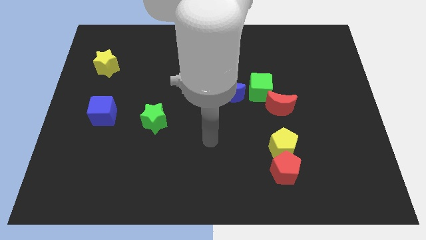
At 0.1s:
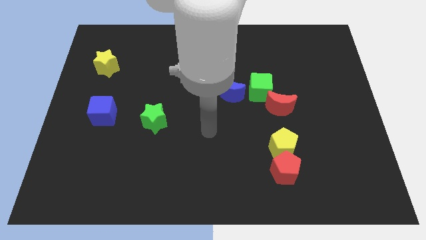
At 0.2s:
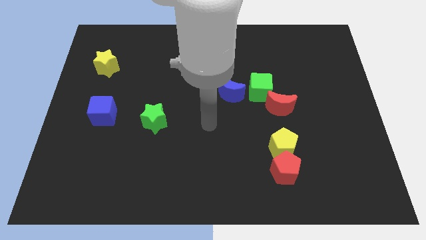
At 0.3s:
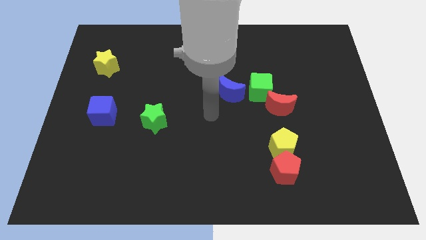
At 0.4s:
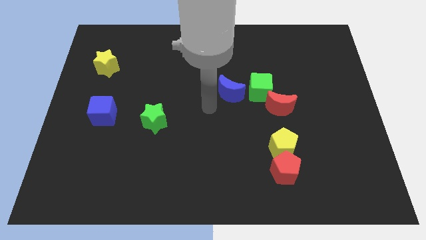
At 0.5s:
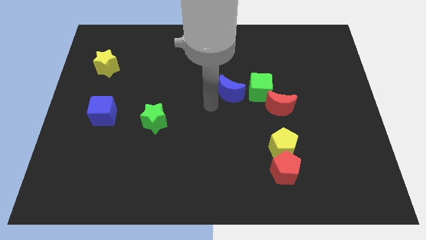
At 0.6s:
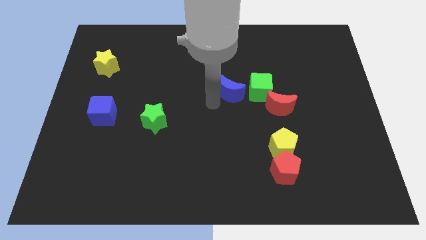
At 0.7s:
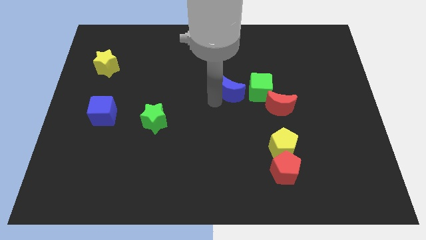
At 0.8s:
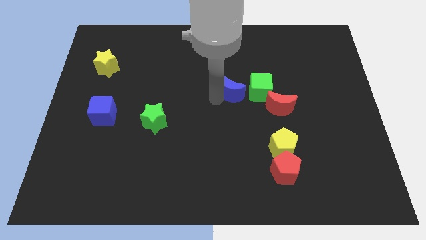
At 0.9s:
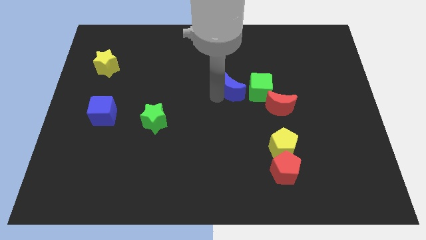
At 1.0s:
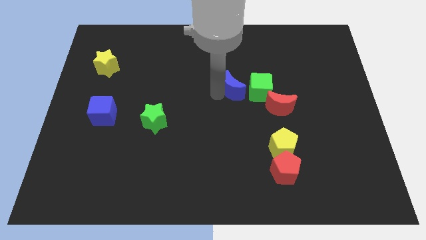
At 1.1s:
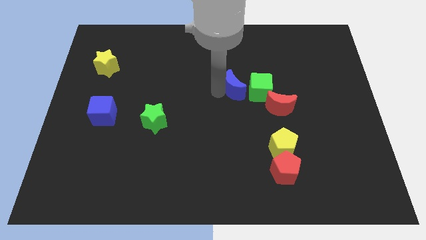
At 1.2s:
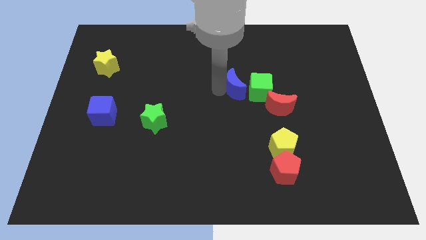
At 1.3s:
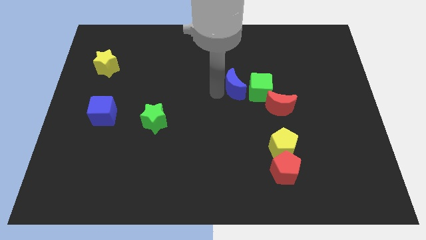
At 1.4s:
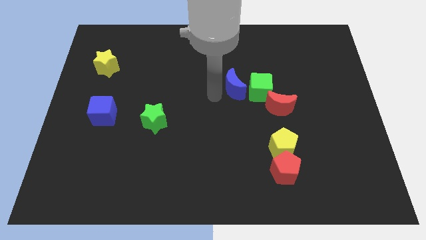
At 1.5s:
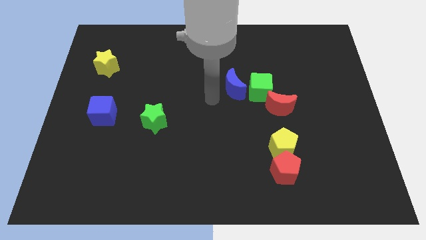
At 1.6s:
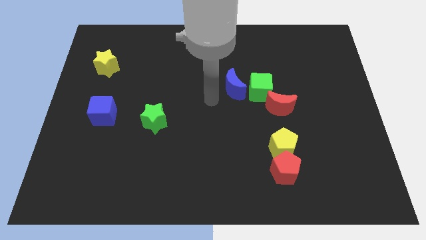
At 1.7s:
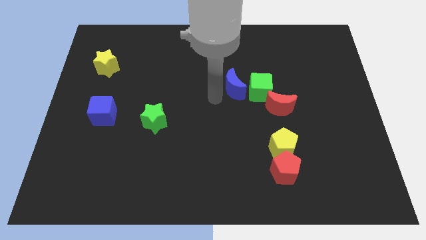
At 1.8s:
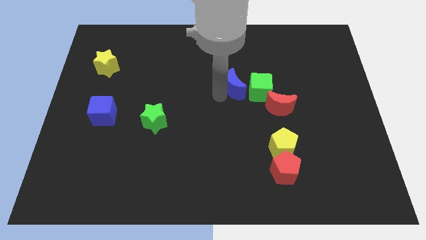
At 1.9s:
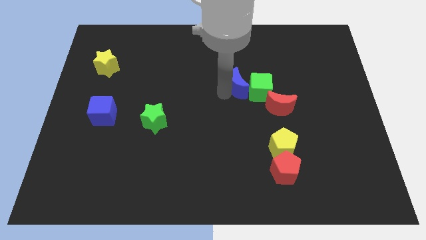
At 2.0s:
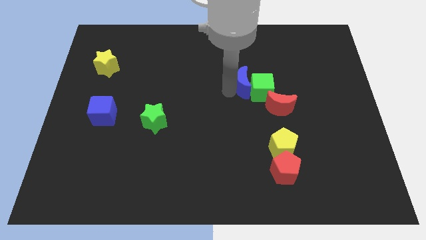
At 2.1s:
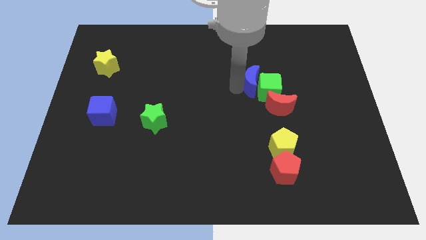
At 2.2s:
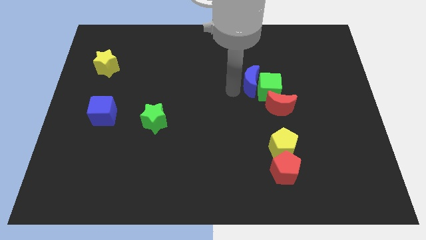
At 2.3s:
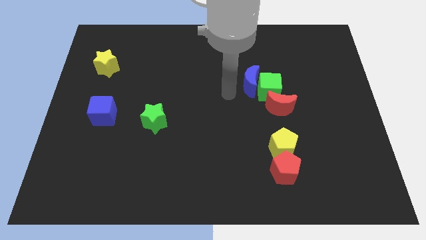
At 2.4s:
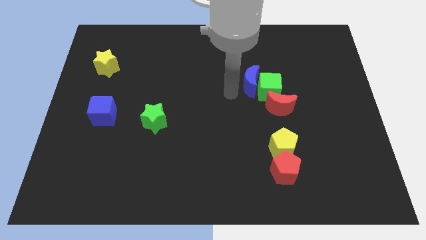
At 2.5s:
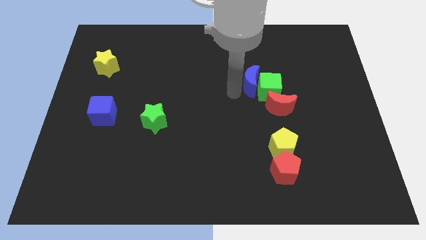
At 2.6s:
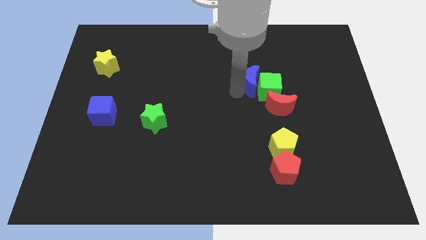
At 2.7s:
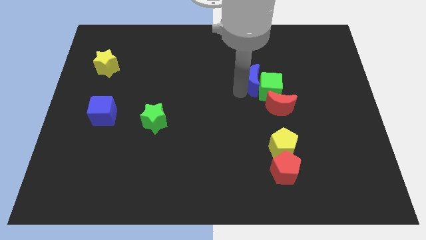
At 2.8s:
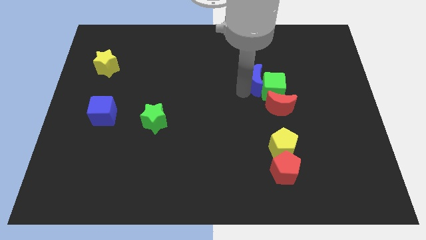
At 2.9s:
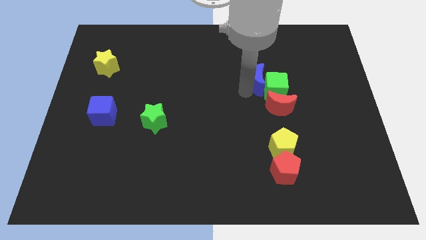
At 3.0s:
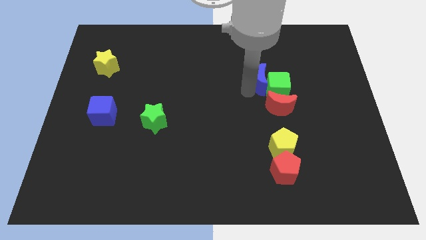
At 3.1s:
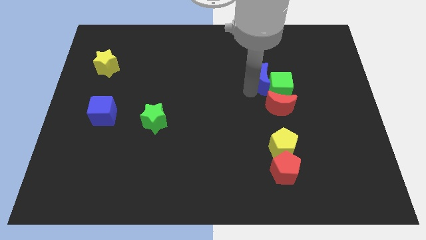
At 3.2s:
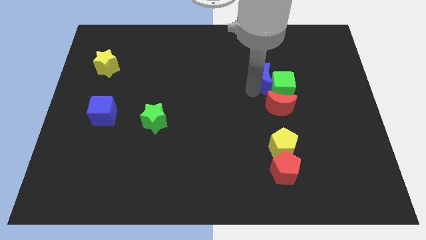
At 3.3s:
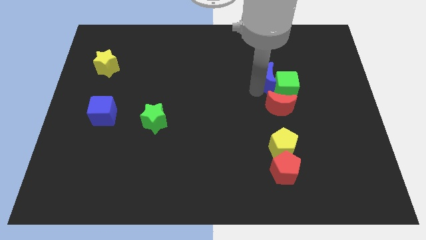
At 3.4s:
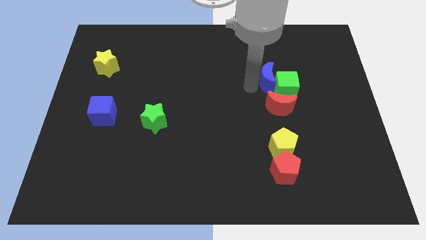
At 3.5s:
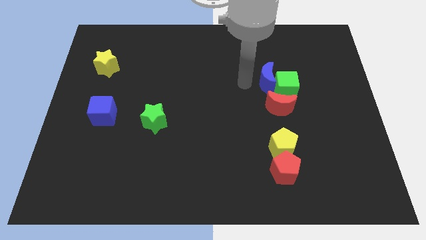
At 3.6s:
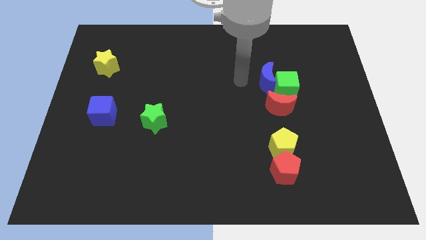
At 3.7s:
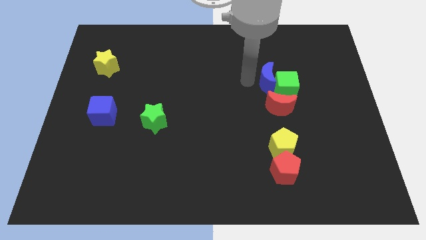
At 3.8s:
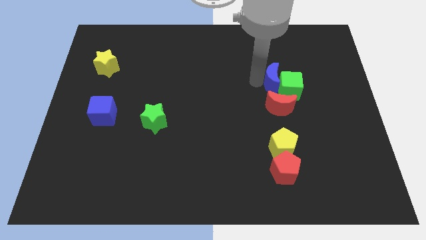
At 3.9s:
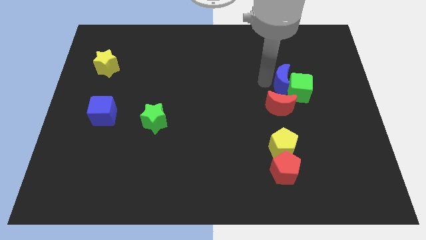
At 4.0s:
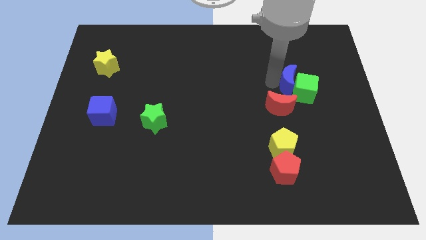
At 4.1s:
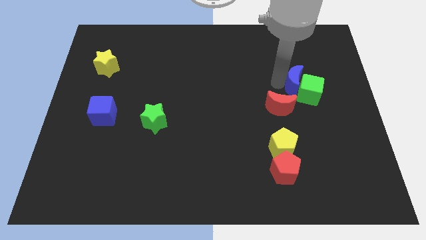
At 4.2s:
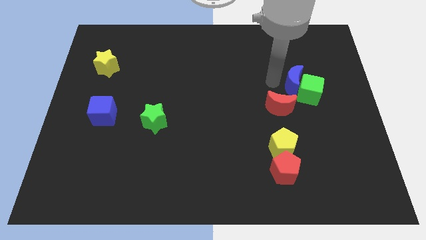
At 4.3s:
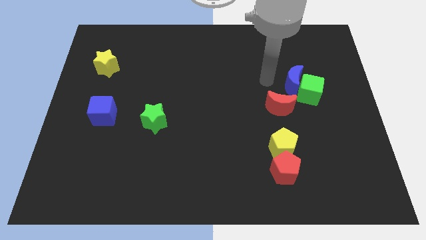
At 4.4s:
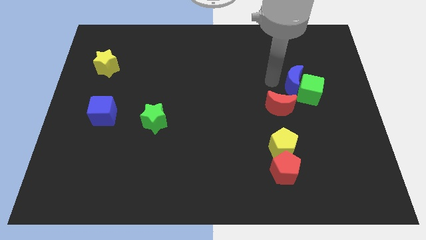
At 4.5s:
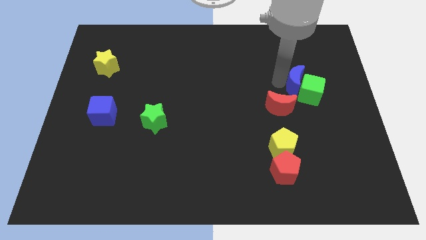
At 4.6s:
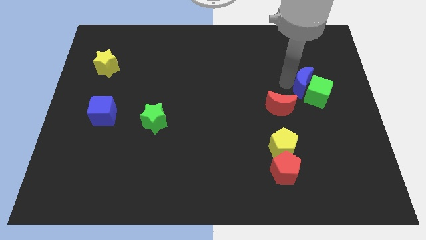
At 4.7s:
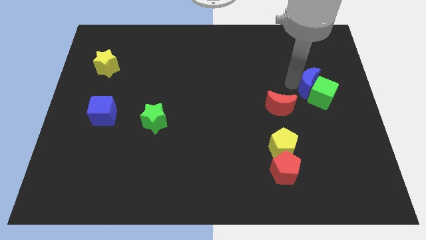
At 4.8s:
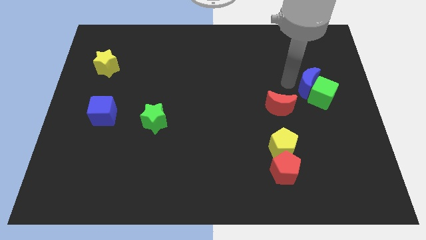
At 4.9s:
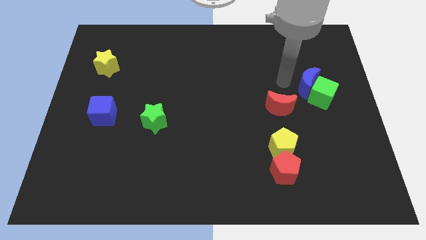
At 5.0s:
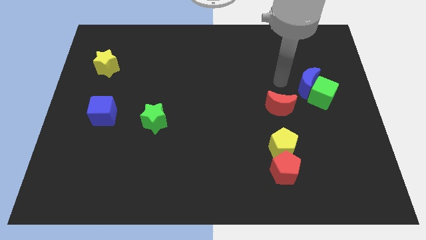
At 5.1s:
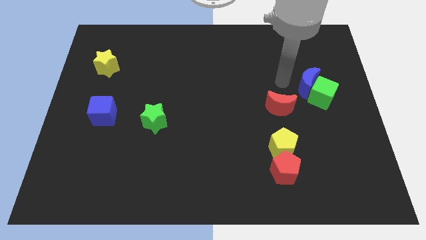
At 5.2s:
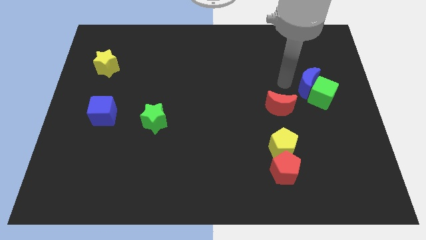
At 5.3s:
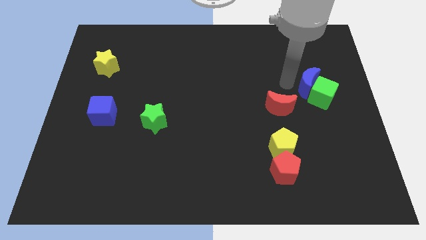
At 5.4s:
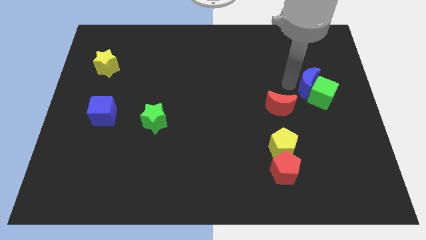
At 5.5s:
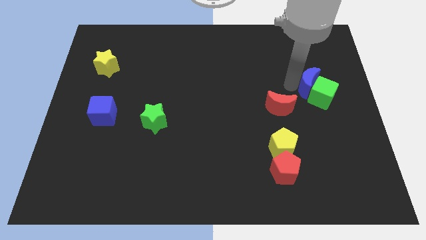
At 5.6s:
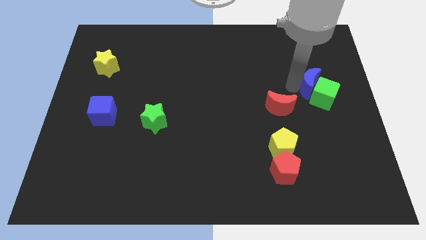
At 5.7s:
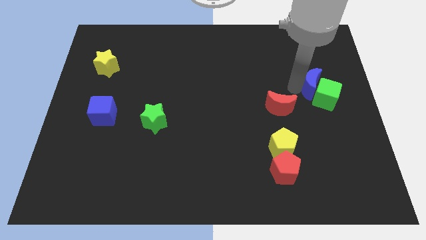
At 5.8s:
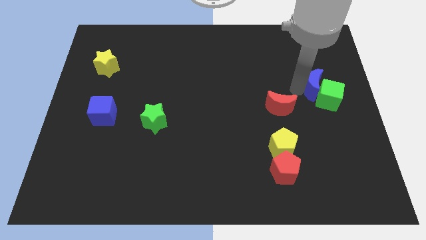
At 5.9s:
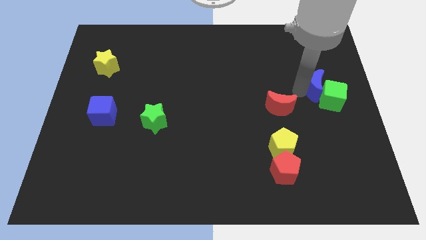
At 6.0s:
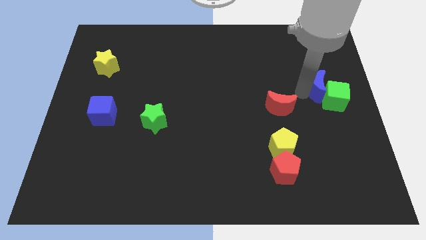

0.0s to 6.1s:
push the blue moon to the right side

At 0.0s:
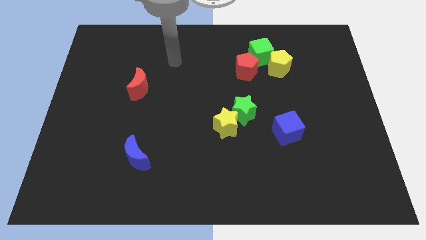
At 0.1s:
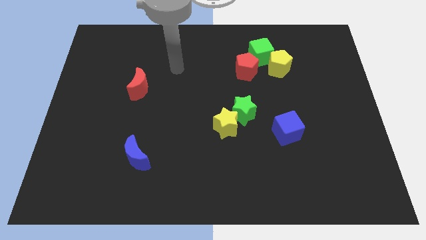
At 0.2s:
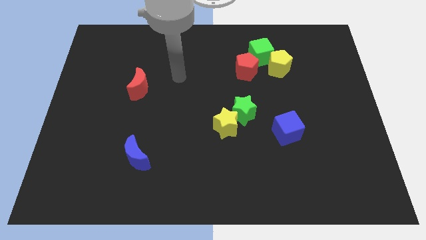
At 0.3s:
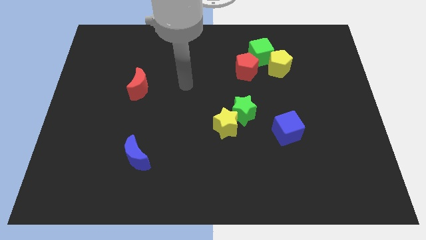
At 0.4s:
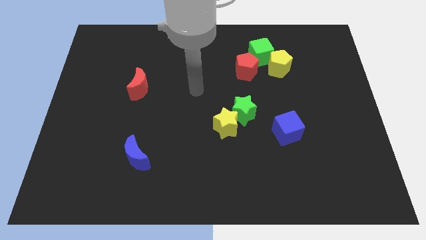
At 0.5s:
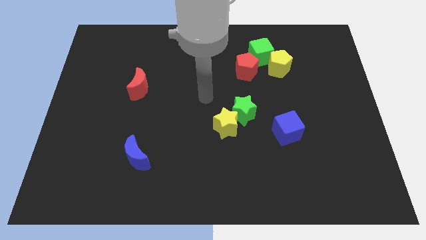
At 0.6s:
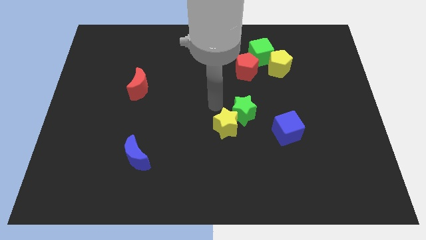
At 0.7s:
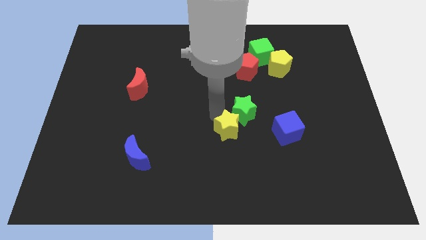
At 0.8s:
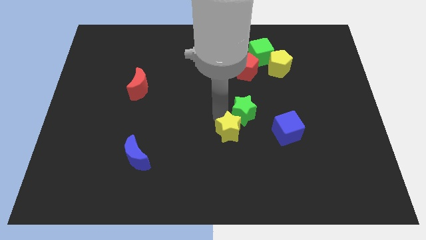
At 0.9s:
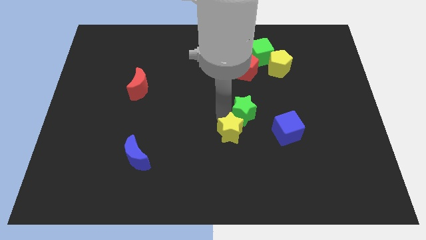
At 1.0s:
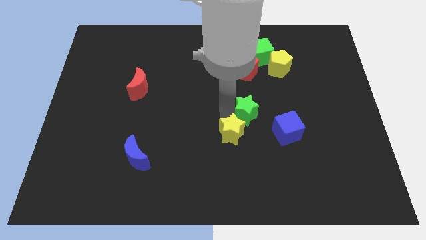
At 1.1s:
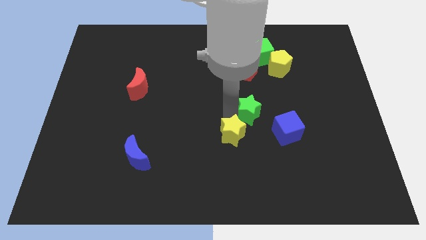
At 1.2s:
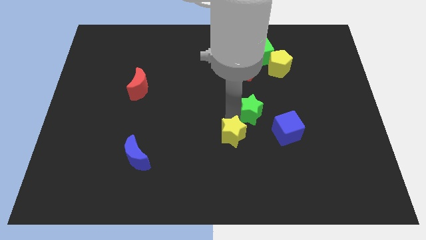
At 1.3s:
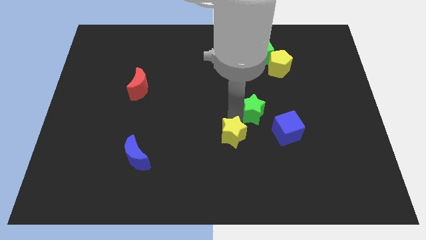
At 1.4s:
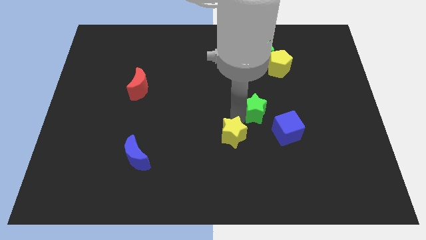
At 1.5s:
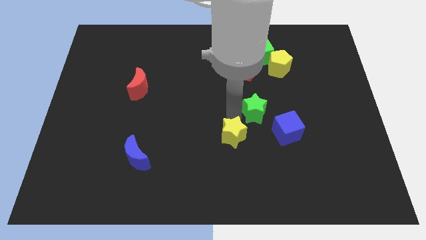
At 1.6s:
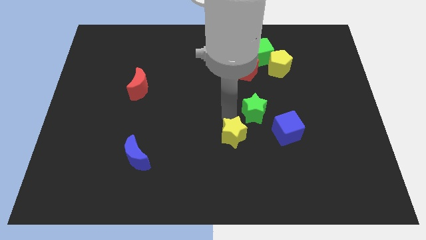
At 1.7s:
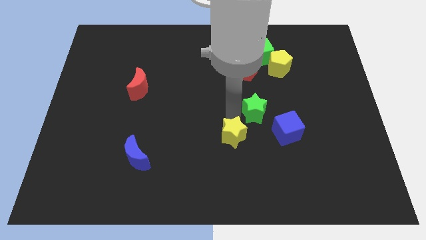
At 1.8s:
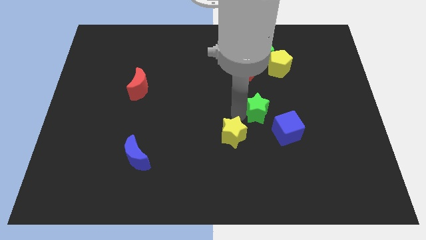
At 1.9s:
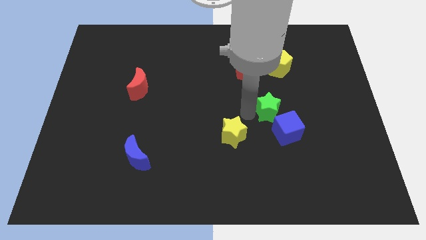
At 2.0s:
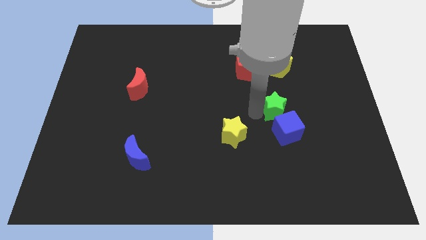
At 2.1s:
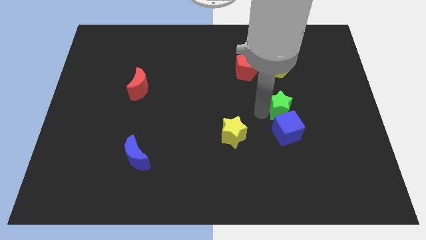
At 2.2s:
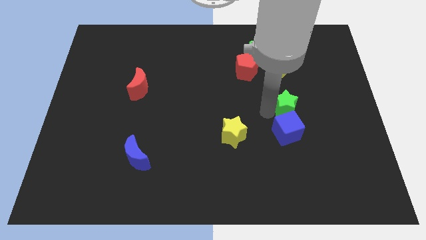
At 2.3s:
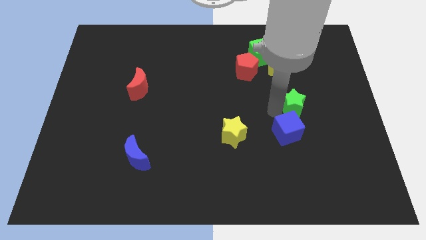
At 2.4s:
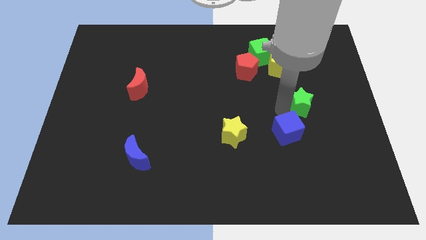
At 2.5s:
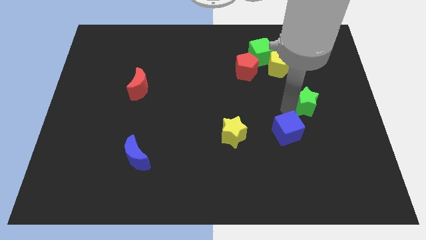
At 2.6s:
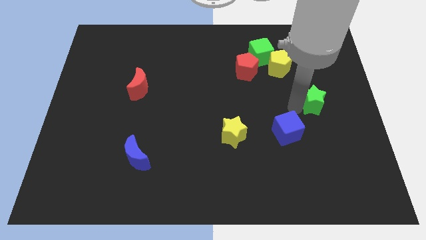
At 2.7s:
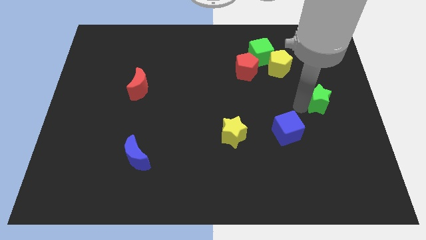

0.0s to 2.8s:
push the green star to the right side
